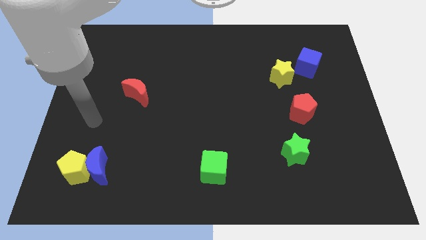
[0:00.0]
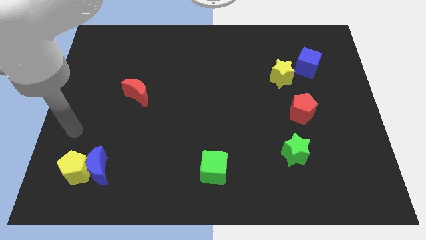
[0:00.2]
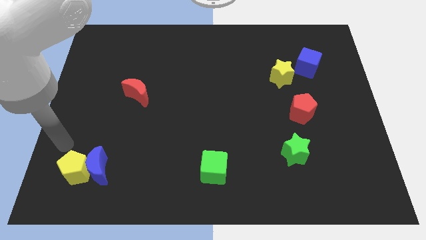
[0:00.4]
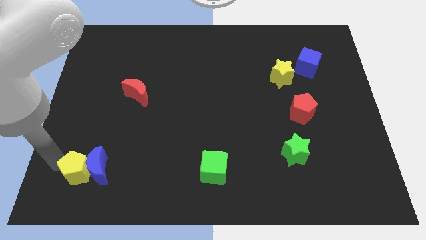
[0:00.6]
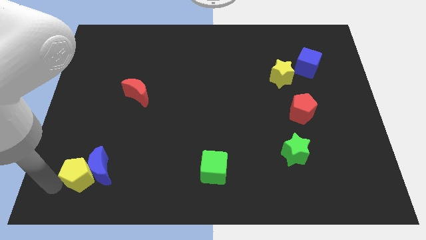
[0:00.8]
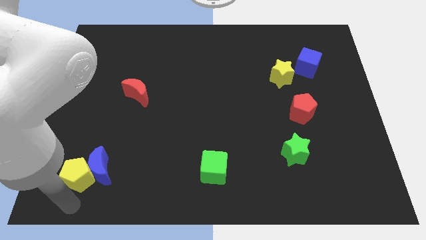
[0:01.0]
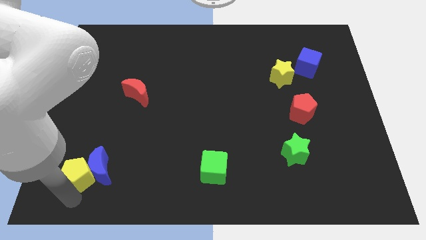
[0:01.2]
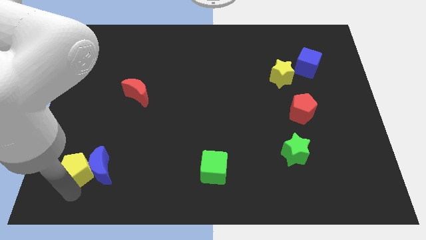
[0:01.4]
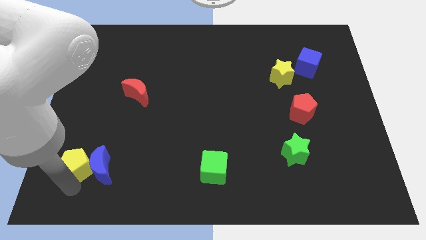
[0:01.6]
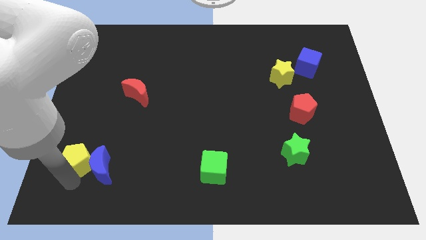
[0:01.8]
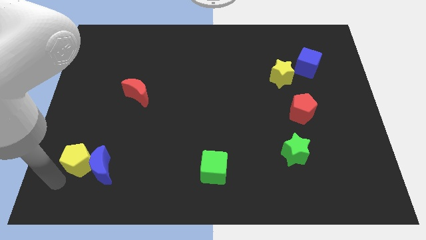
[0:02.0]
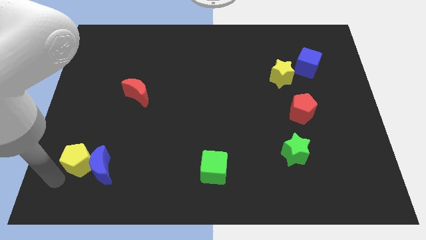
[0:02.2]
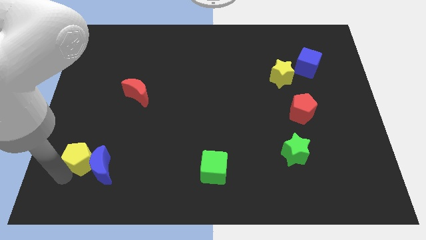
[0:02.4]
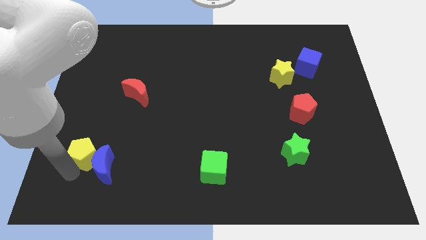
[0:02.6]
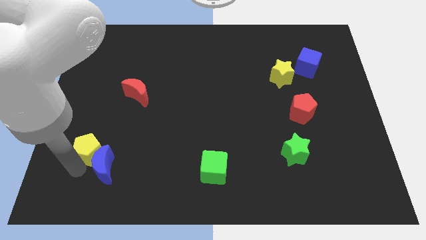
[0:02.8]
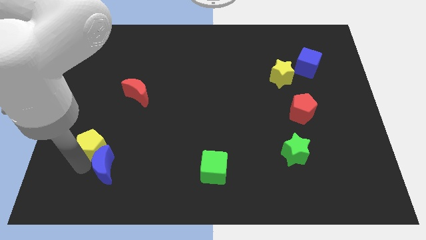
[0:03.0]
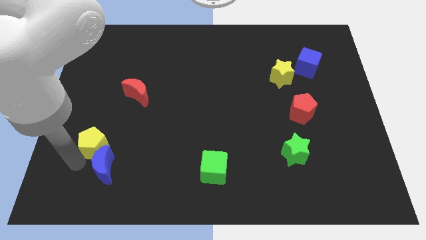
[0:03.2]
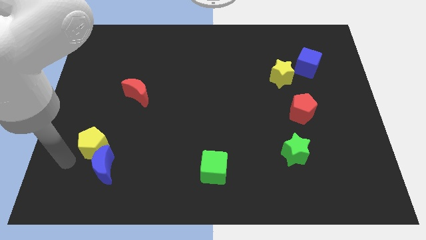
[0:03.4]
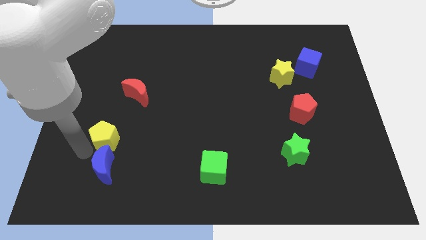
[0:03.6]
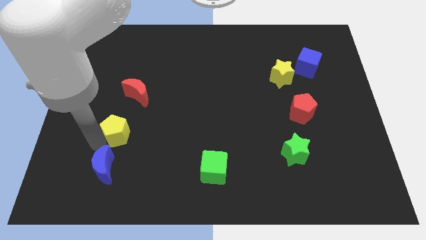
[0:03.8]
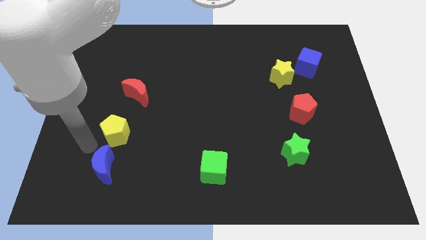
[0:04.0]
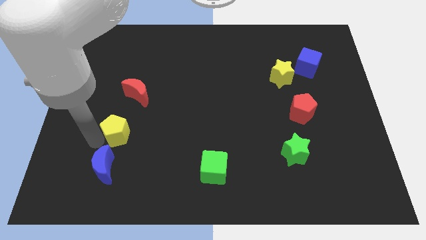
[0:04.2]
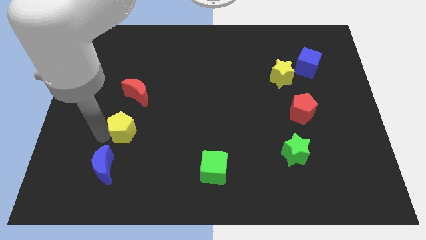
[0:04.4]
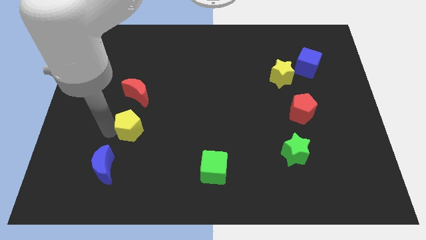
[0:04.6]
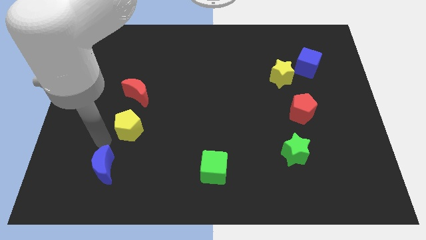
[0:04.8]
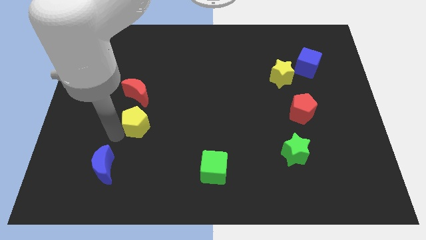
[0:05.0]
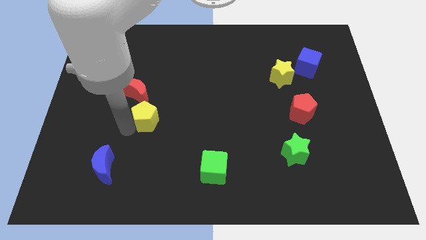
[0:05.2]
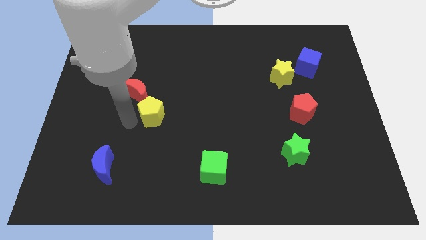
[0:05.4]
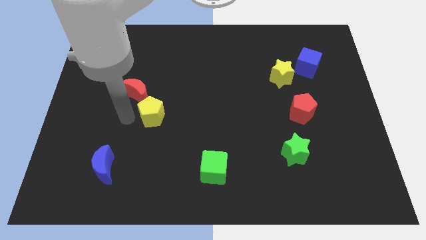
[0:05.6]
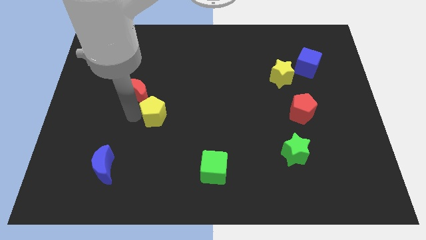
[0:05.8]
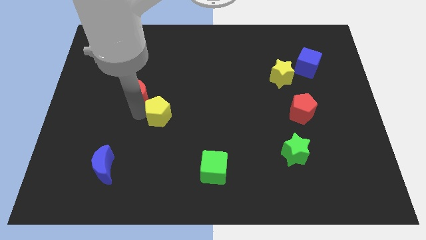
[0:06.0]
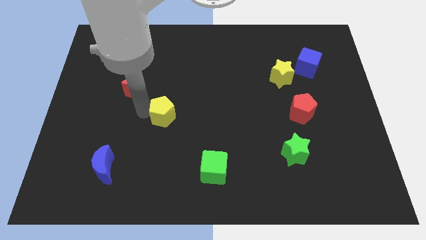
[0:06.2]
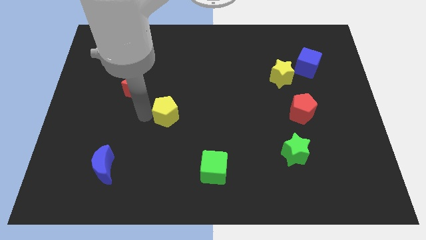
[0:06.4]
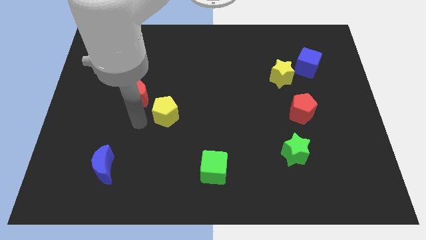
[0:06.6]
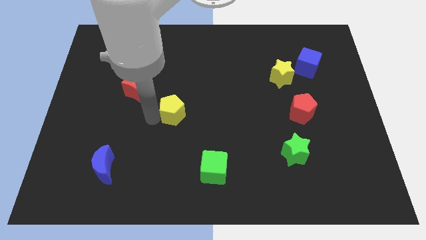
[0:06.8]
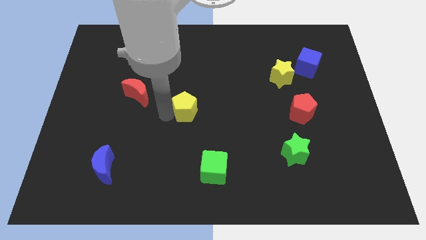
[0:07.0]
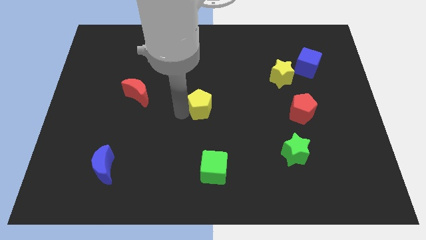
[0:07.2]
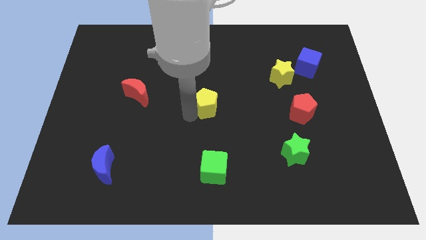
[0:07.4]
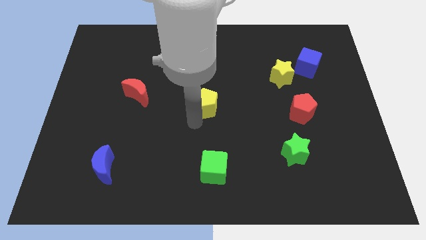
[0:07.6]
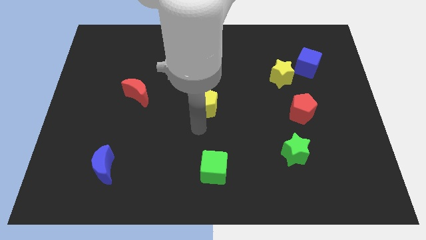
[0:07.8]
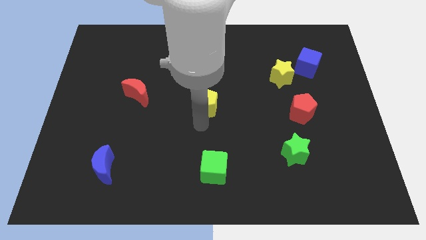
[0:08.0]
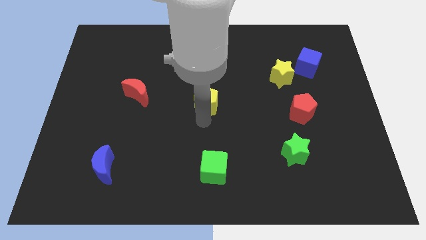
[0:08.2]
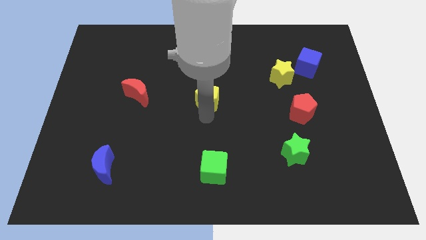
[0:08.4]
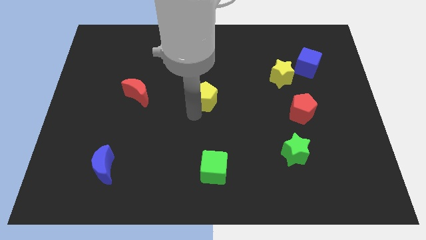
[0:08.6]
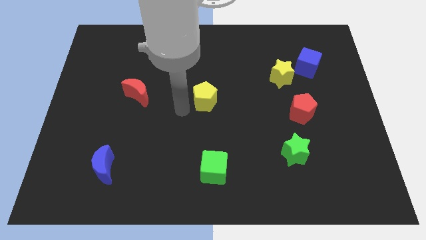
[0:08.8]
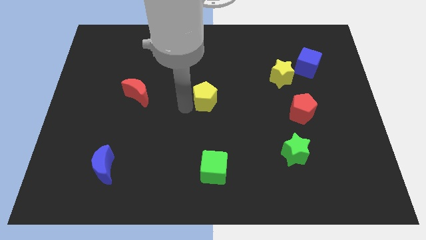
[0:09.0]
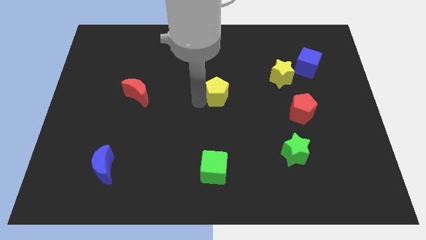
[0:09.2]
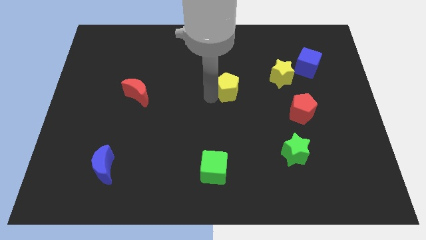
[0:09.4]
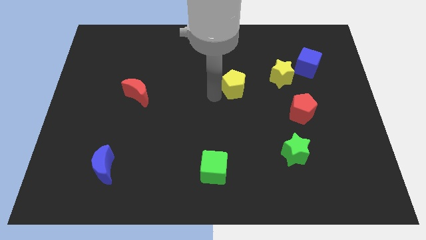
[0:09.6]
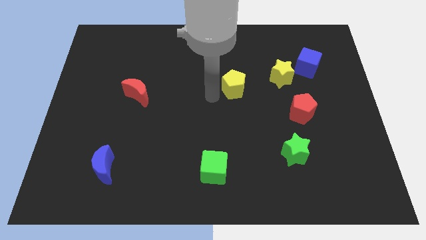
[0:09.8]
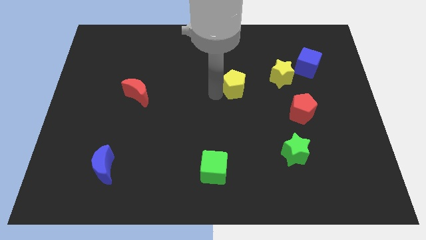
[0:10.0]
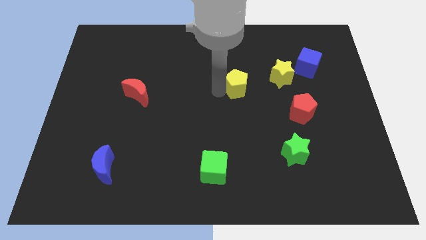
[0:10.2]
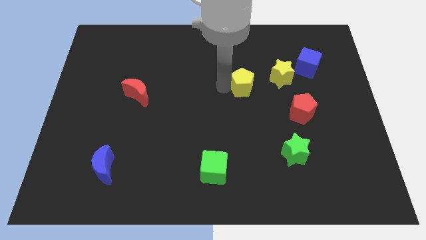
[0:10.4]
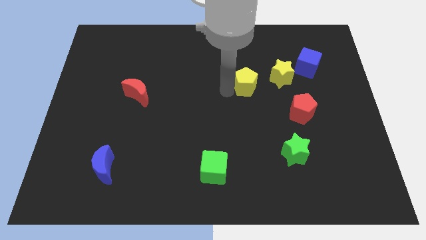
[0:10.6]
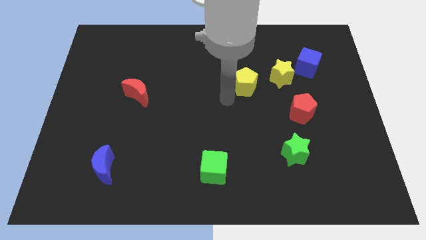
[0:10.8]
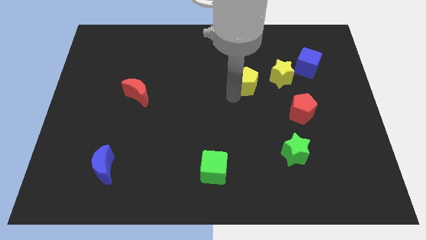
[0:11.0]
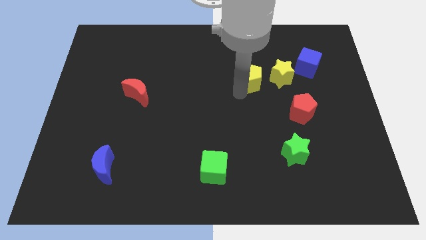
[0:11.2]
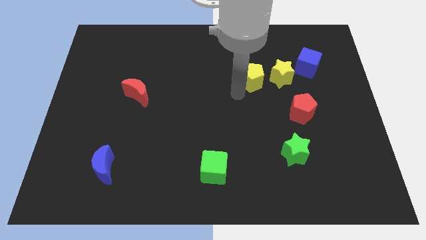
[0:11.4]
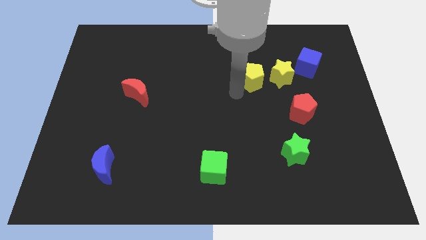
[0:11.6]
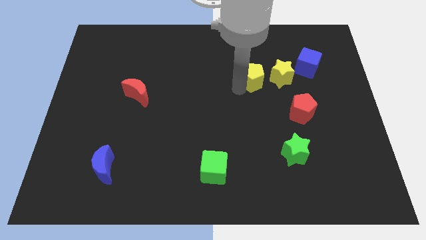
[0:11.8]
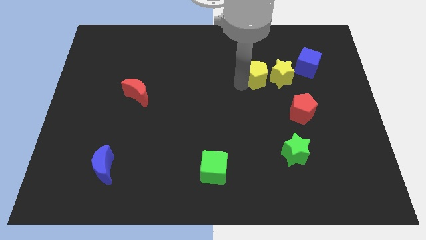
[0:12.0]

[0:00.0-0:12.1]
slide the yellow pentagon left of the blue cube

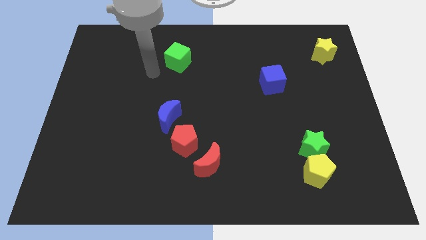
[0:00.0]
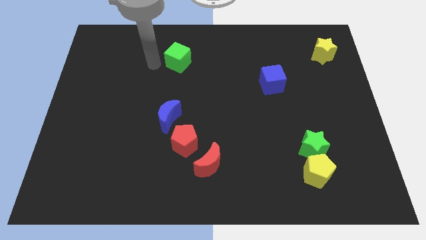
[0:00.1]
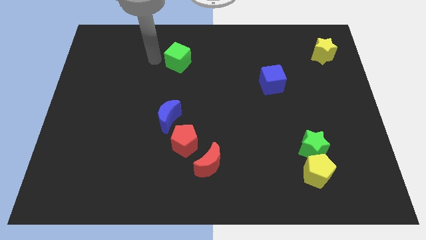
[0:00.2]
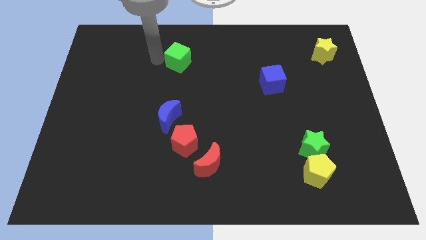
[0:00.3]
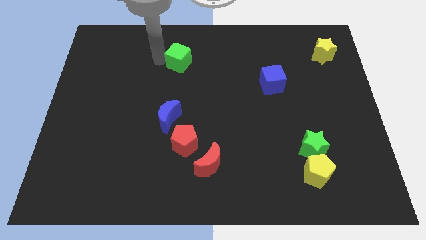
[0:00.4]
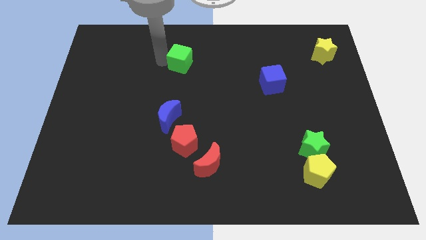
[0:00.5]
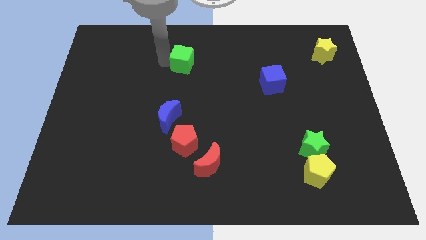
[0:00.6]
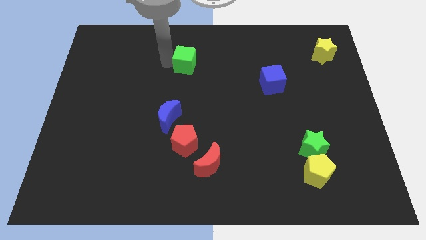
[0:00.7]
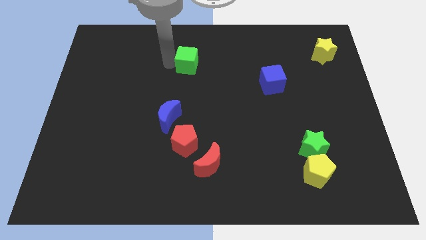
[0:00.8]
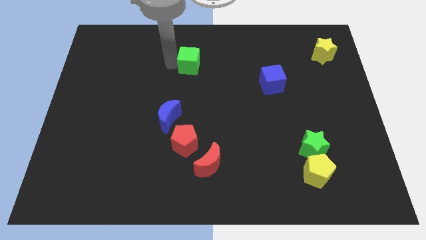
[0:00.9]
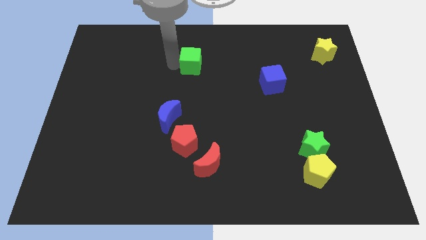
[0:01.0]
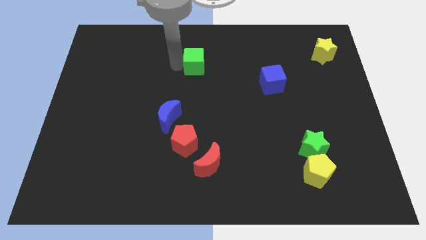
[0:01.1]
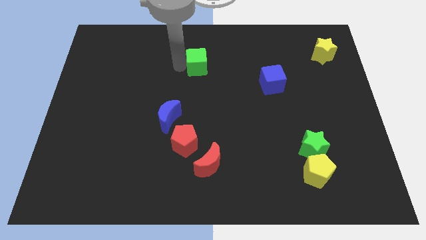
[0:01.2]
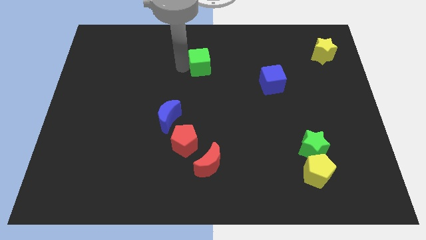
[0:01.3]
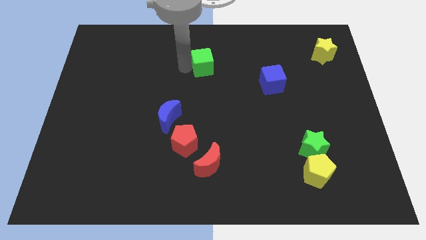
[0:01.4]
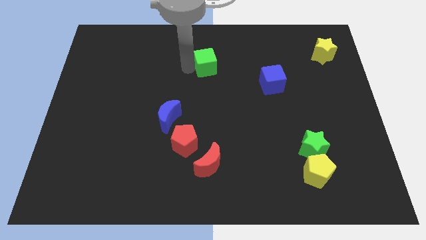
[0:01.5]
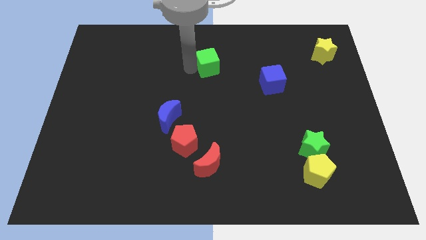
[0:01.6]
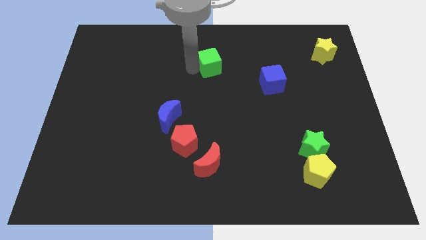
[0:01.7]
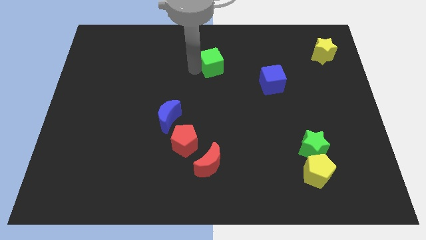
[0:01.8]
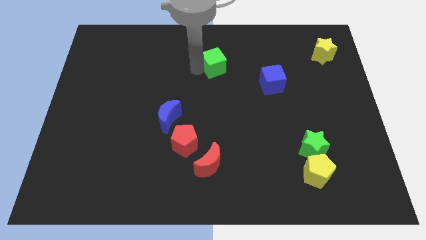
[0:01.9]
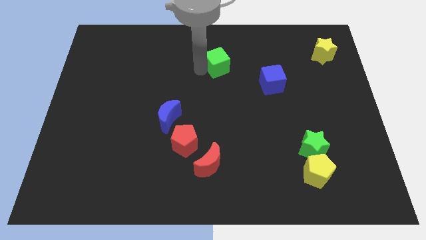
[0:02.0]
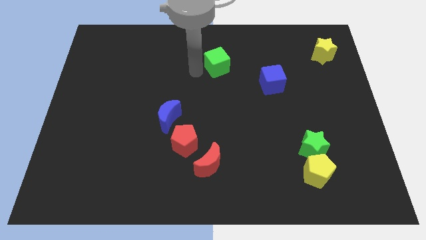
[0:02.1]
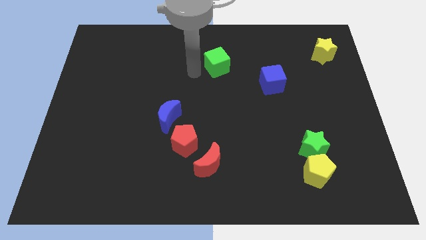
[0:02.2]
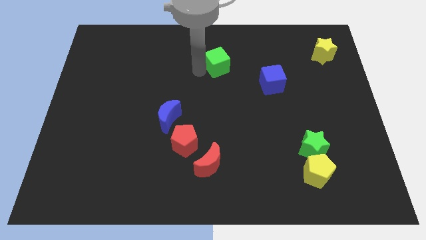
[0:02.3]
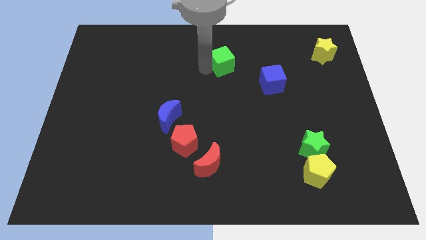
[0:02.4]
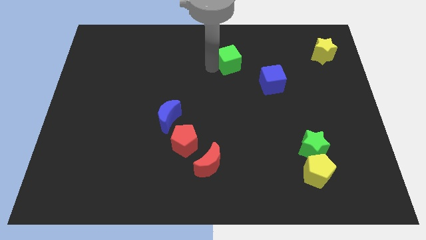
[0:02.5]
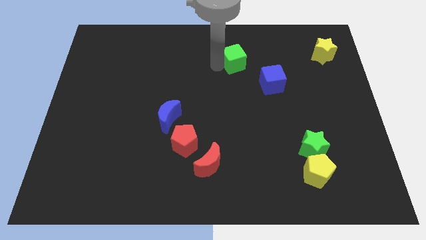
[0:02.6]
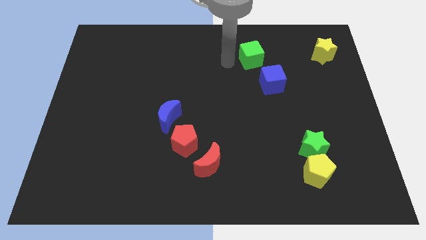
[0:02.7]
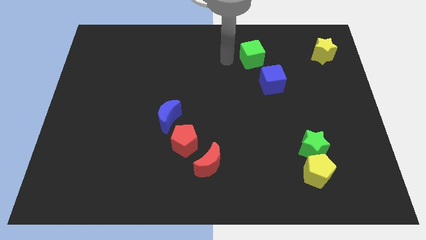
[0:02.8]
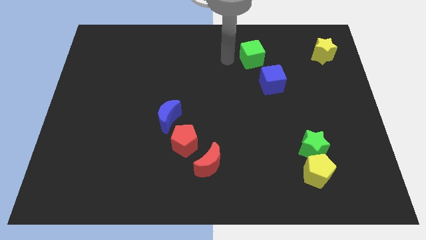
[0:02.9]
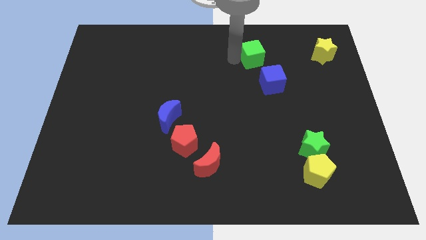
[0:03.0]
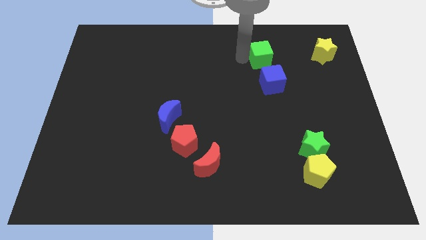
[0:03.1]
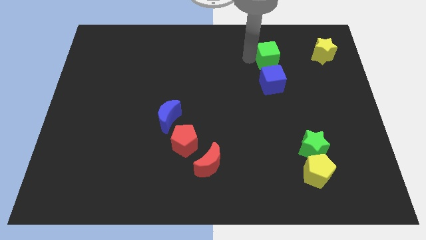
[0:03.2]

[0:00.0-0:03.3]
push the green cube left of the yellow star
